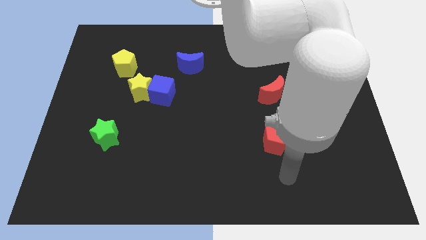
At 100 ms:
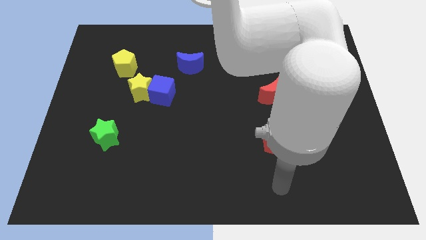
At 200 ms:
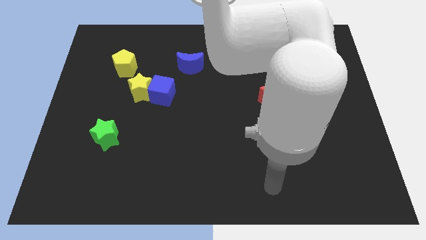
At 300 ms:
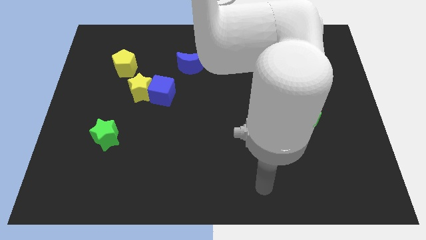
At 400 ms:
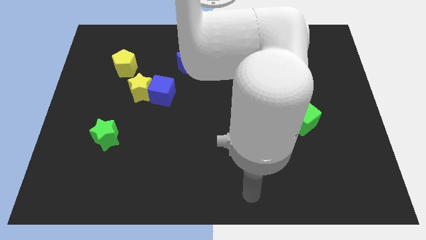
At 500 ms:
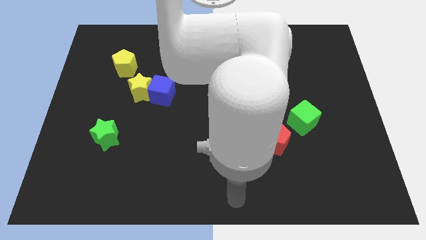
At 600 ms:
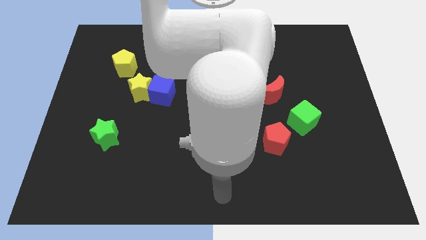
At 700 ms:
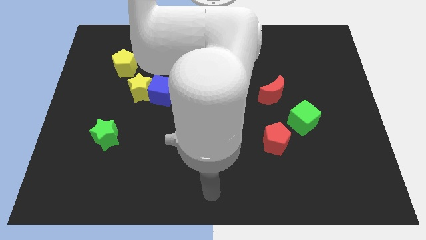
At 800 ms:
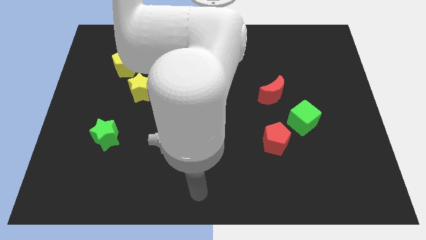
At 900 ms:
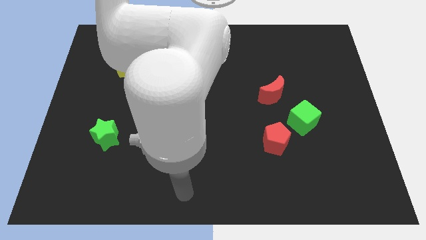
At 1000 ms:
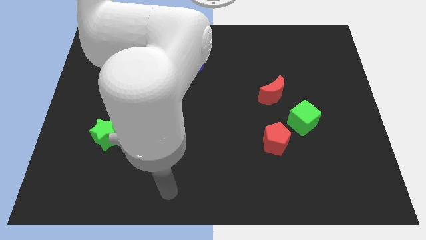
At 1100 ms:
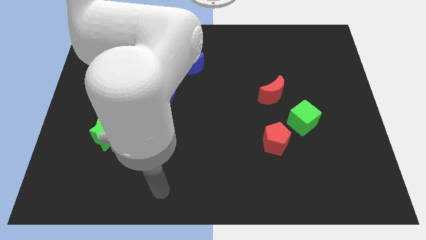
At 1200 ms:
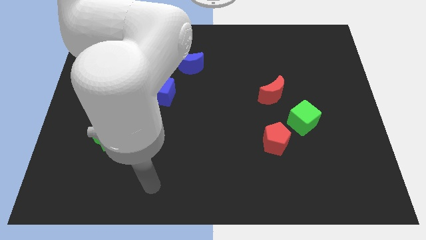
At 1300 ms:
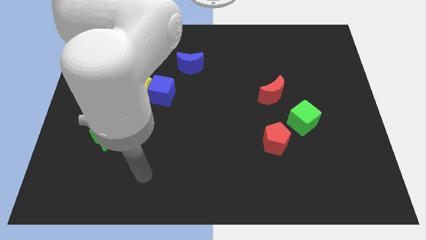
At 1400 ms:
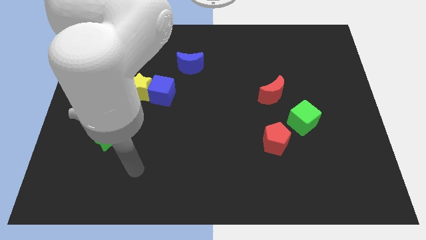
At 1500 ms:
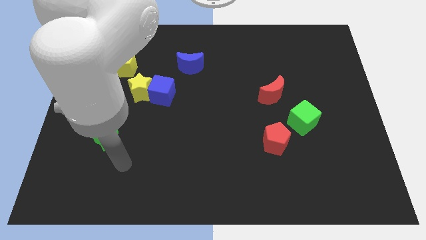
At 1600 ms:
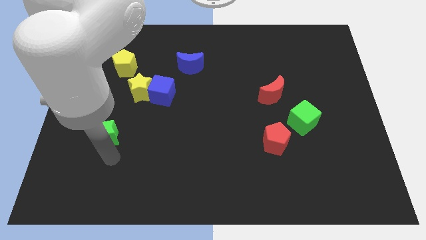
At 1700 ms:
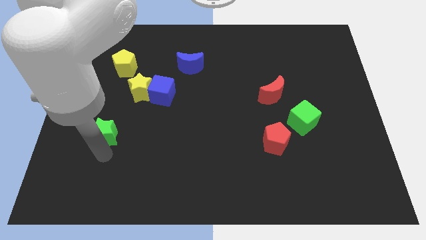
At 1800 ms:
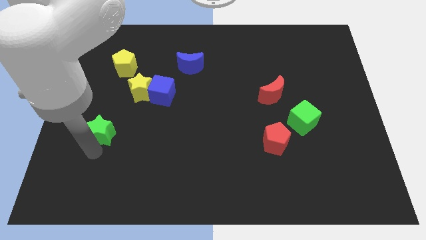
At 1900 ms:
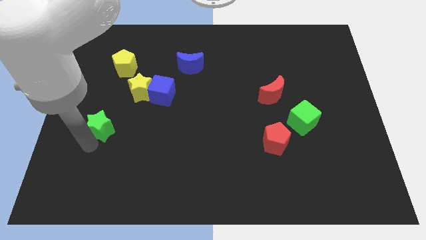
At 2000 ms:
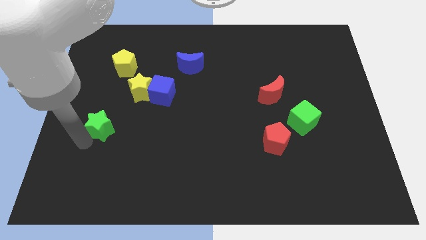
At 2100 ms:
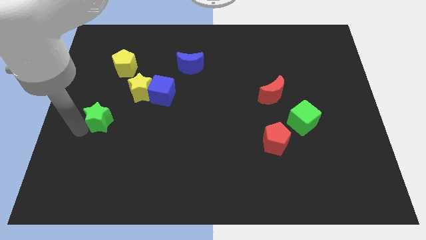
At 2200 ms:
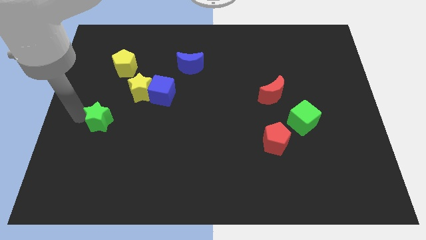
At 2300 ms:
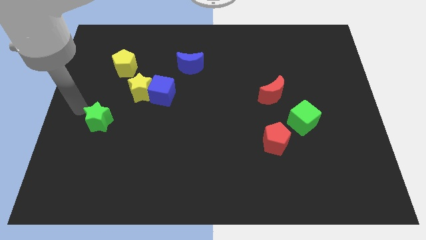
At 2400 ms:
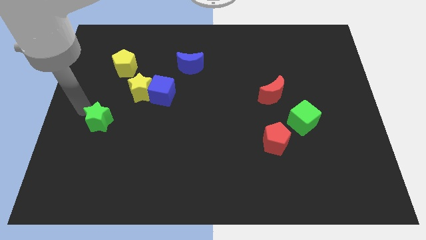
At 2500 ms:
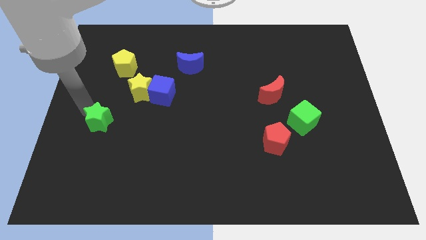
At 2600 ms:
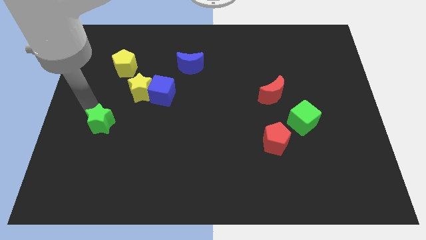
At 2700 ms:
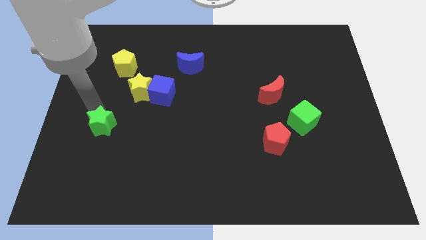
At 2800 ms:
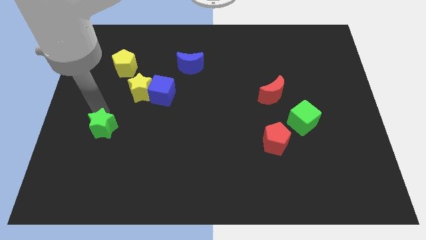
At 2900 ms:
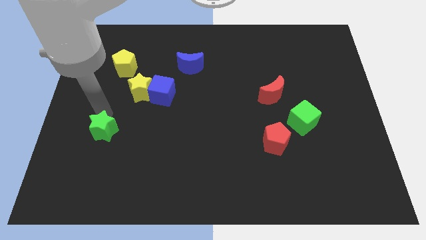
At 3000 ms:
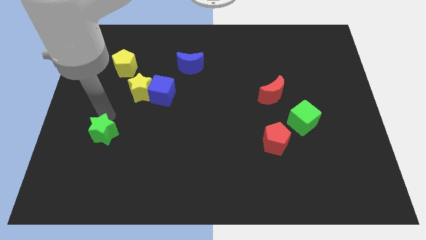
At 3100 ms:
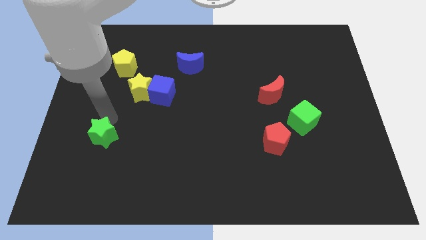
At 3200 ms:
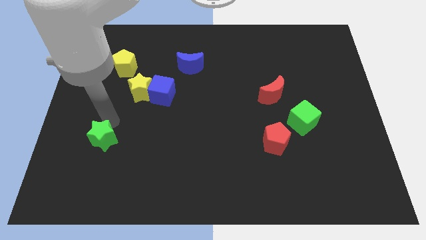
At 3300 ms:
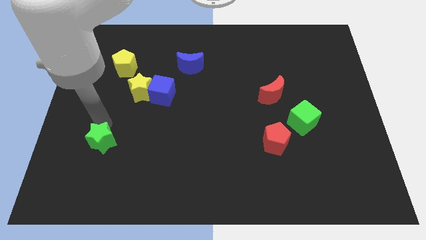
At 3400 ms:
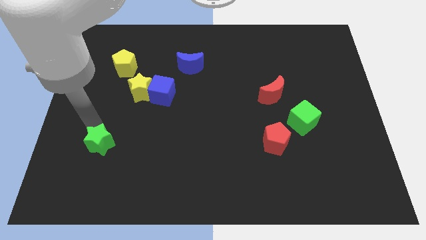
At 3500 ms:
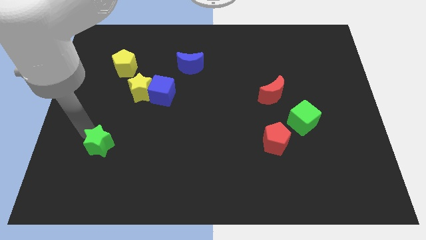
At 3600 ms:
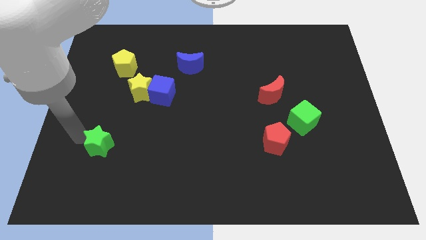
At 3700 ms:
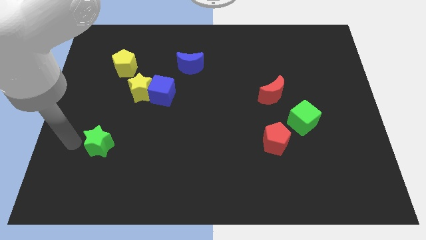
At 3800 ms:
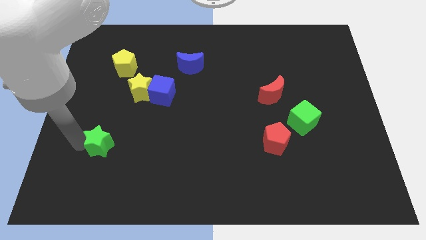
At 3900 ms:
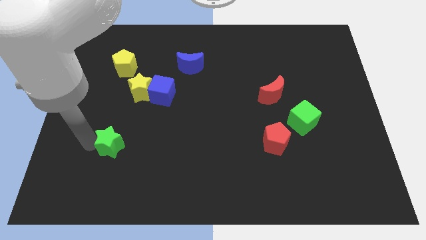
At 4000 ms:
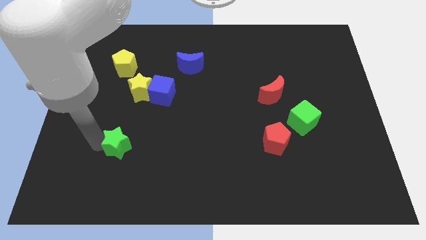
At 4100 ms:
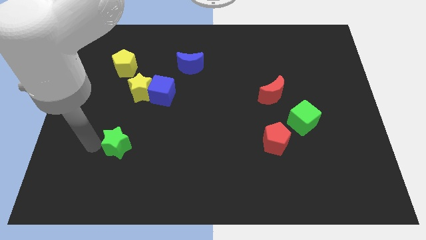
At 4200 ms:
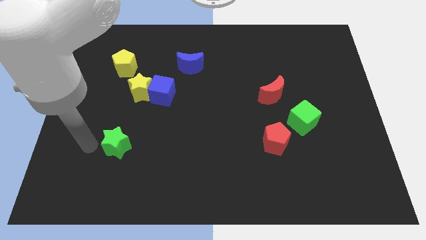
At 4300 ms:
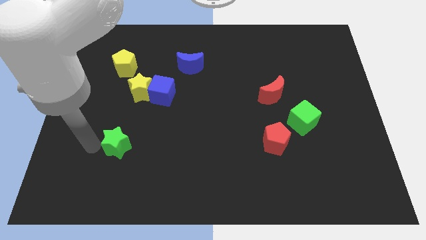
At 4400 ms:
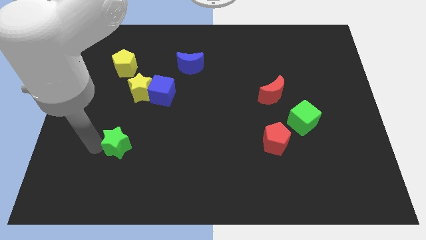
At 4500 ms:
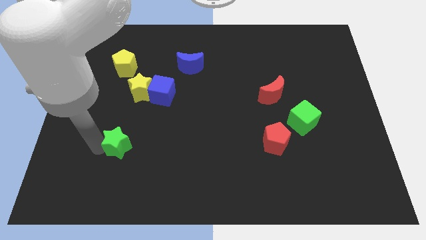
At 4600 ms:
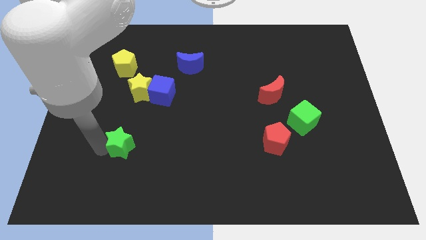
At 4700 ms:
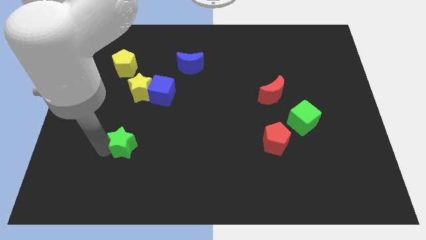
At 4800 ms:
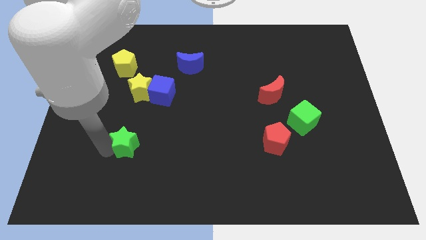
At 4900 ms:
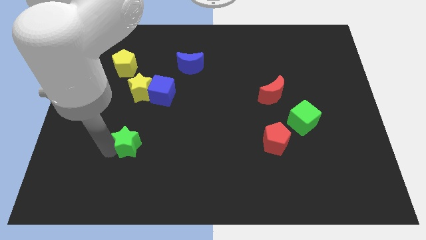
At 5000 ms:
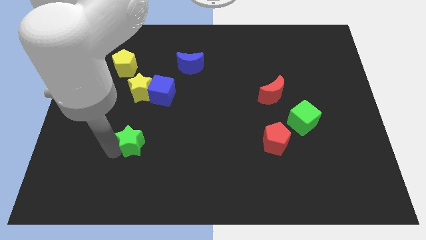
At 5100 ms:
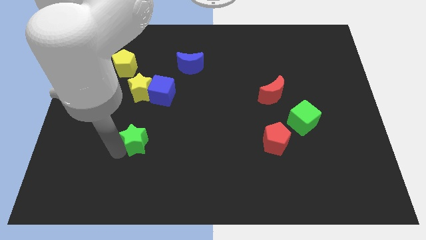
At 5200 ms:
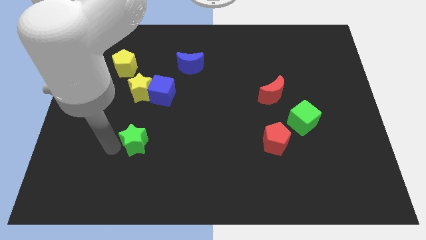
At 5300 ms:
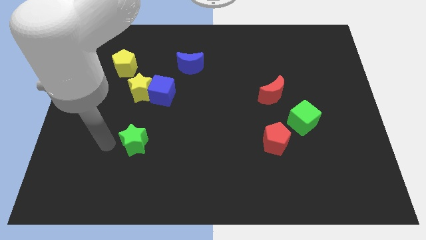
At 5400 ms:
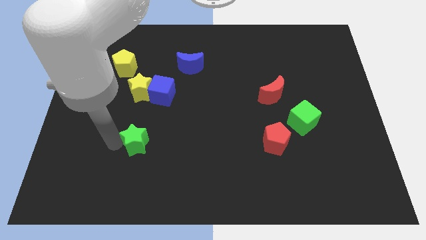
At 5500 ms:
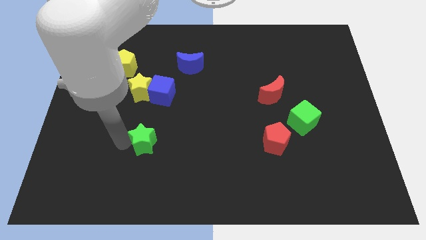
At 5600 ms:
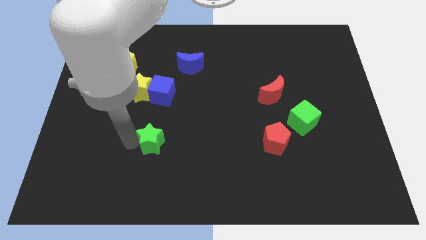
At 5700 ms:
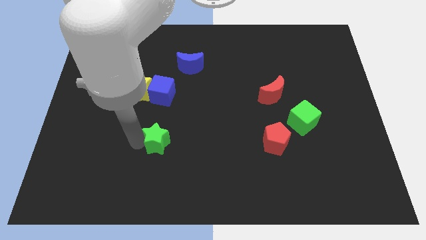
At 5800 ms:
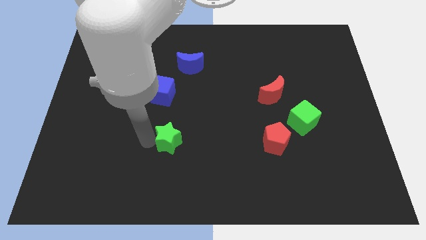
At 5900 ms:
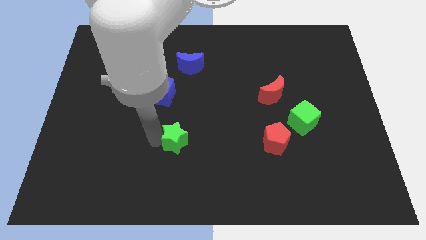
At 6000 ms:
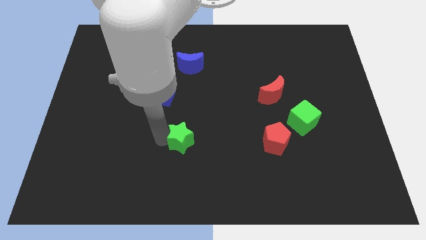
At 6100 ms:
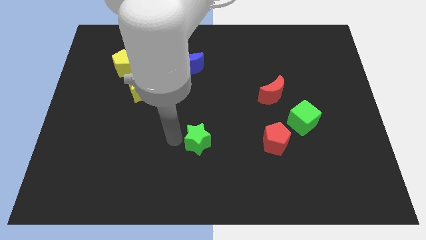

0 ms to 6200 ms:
move the green star right

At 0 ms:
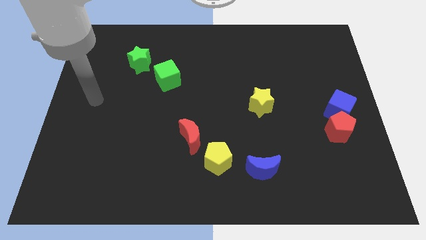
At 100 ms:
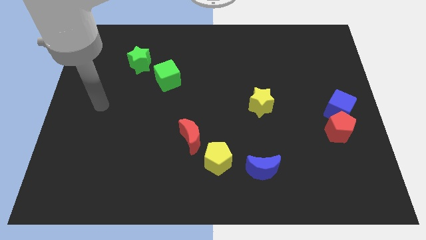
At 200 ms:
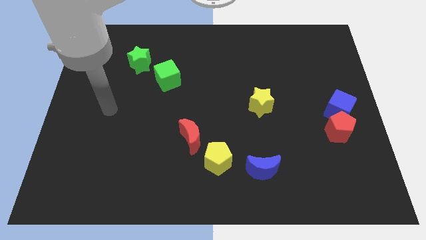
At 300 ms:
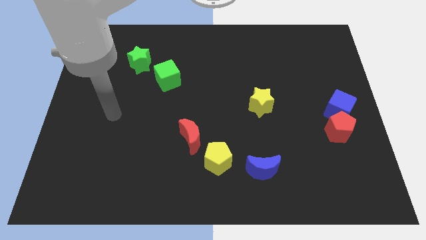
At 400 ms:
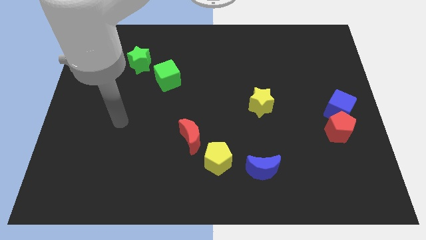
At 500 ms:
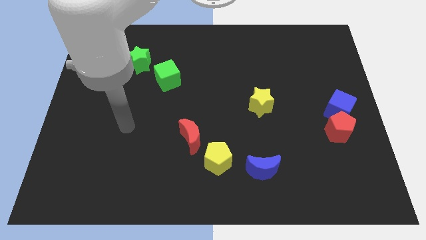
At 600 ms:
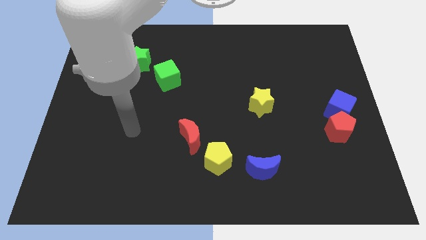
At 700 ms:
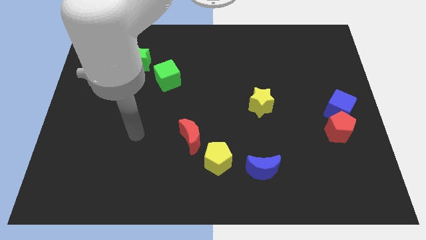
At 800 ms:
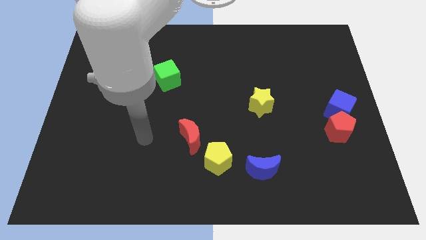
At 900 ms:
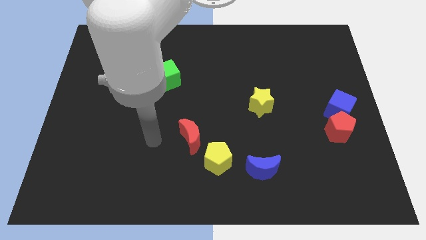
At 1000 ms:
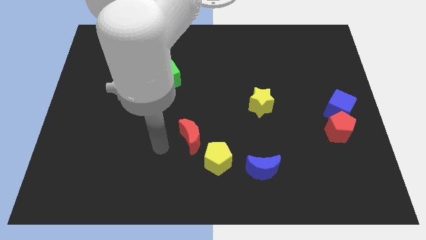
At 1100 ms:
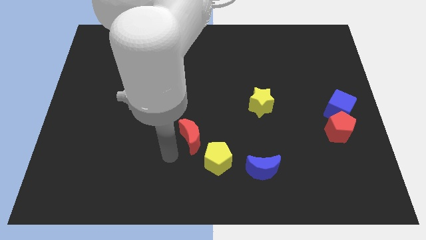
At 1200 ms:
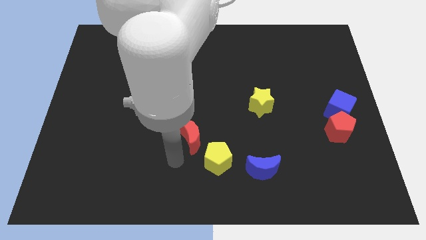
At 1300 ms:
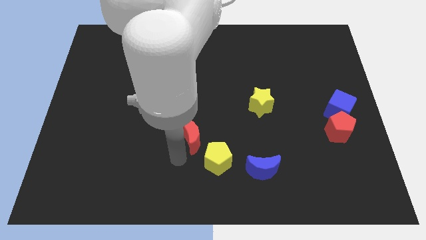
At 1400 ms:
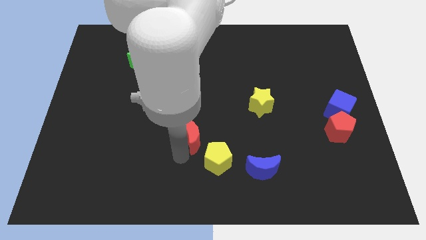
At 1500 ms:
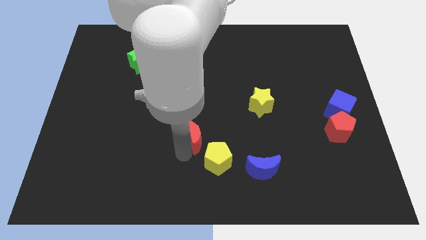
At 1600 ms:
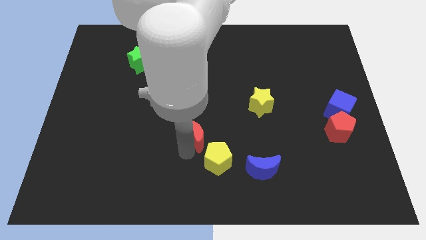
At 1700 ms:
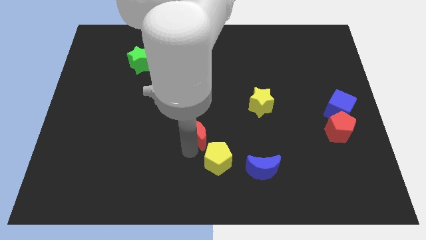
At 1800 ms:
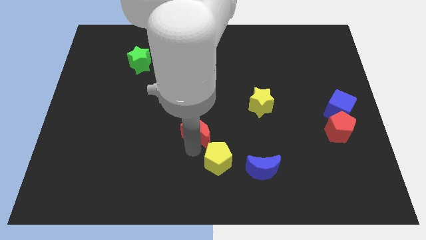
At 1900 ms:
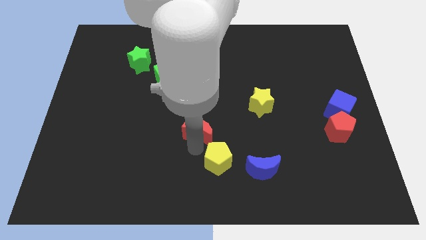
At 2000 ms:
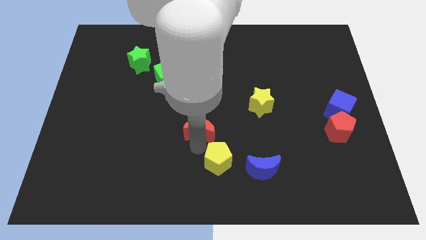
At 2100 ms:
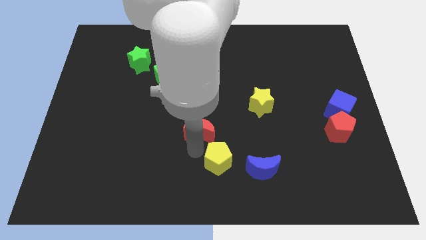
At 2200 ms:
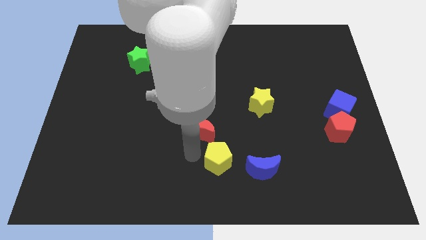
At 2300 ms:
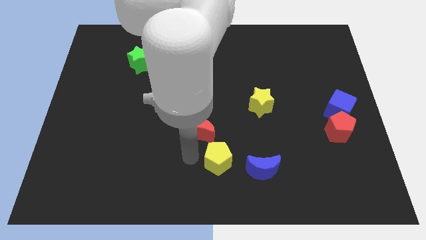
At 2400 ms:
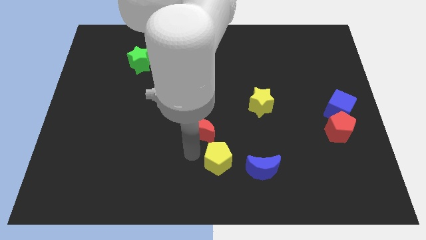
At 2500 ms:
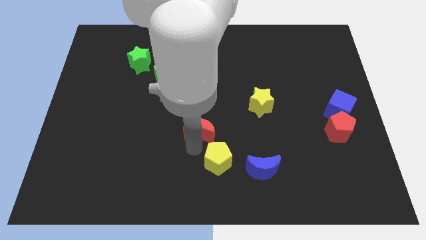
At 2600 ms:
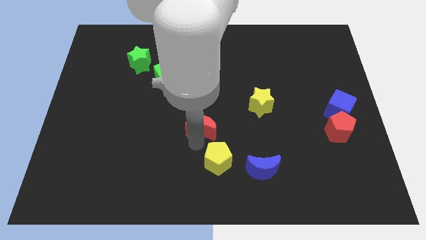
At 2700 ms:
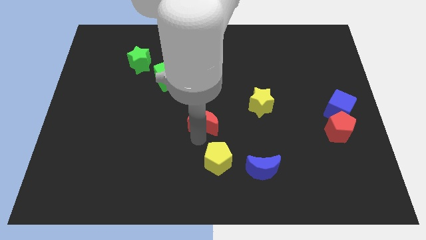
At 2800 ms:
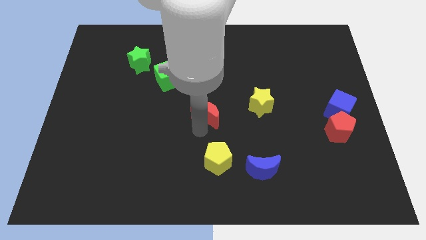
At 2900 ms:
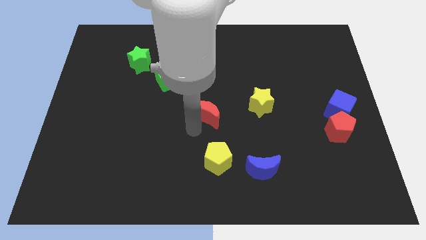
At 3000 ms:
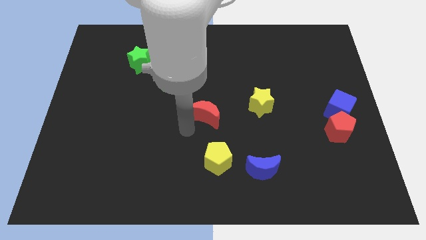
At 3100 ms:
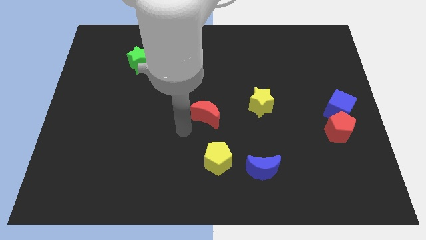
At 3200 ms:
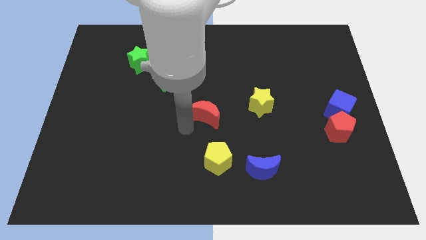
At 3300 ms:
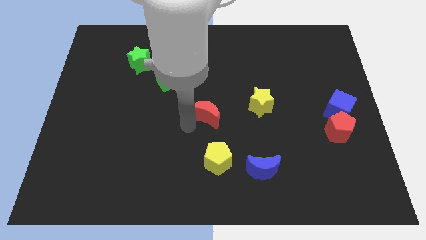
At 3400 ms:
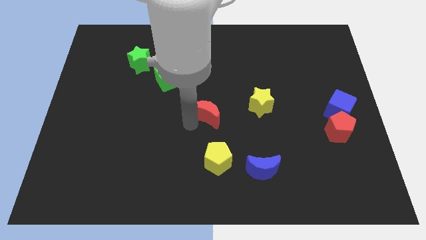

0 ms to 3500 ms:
slightly slide the red moon diagonally up and right
